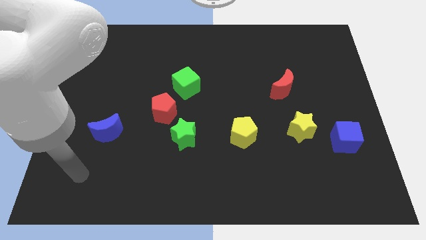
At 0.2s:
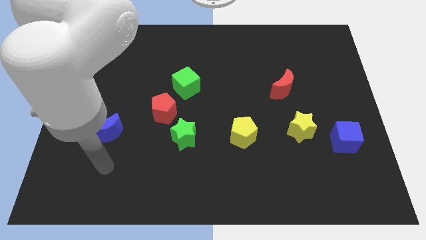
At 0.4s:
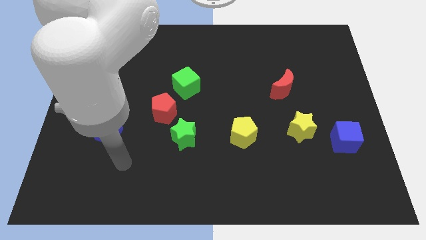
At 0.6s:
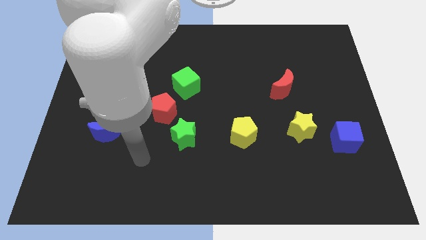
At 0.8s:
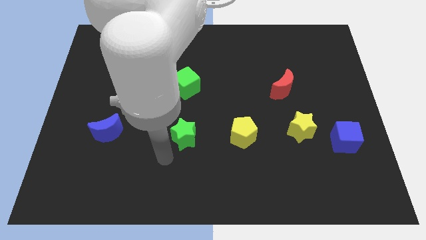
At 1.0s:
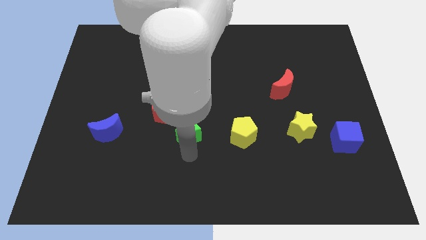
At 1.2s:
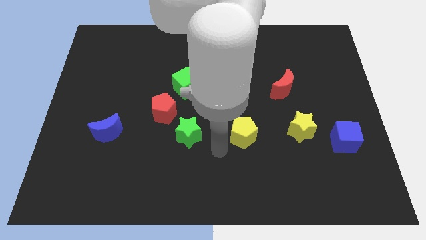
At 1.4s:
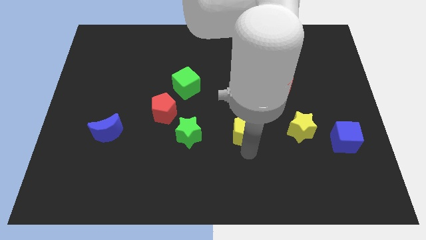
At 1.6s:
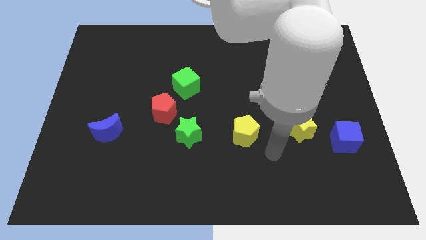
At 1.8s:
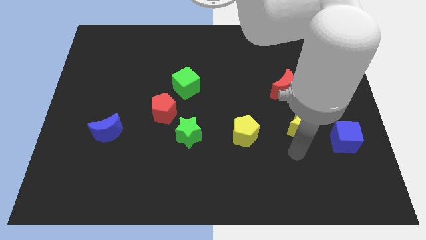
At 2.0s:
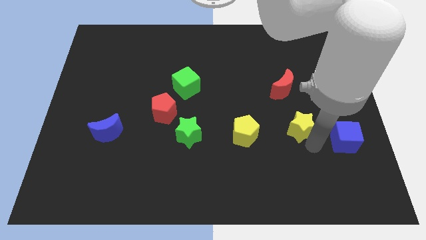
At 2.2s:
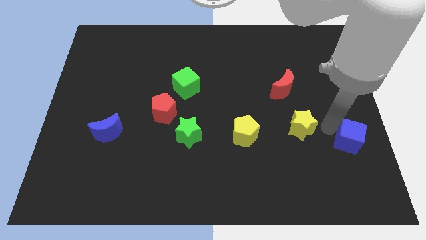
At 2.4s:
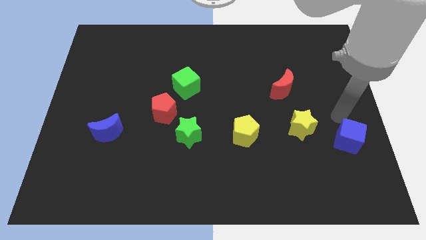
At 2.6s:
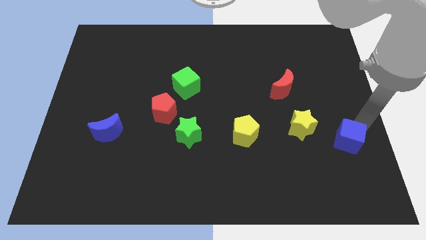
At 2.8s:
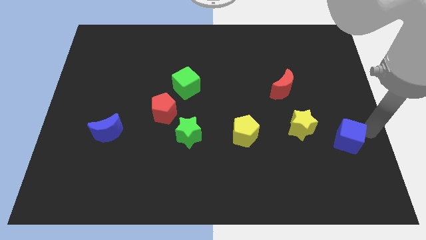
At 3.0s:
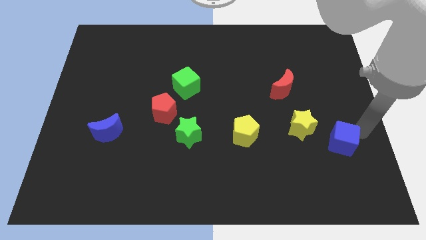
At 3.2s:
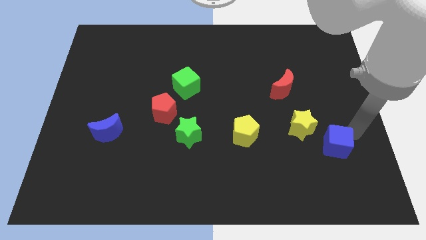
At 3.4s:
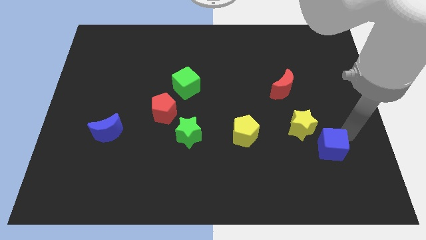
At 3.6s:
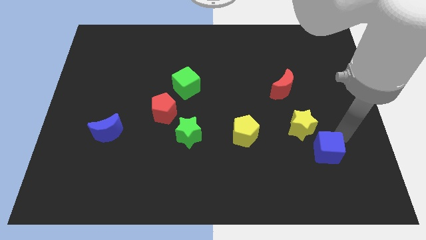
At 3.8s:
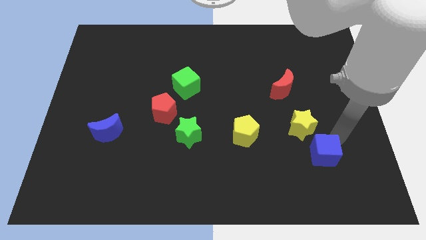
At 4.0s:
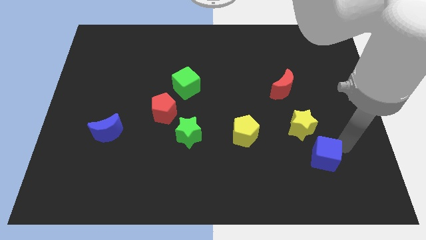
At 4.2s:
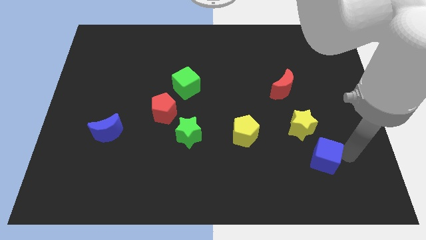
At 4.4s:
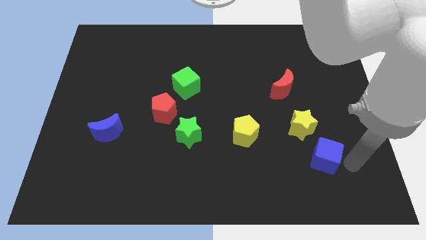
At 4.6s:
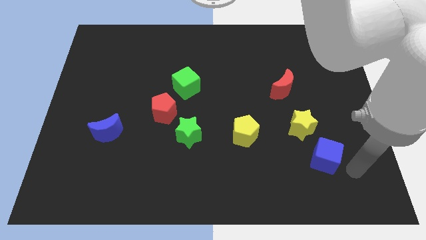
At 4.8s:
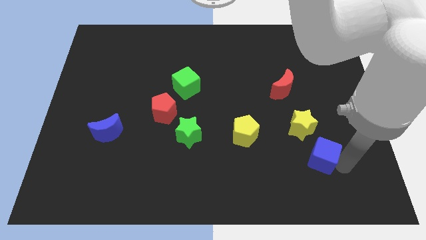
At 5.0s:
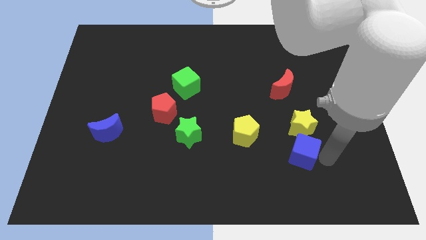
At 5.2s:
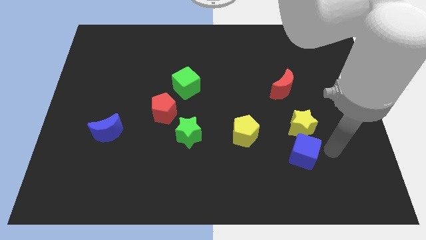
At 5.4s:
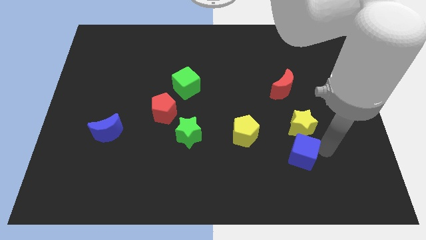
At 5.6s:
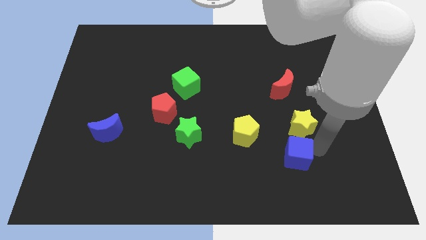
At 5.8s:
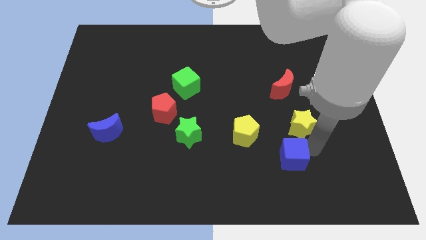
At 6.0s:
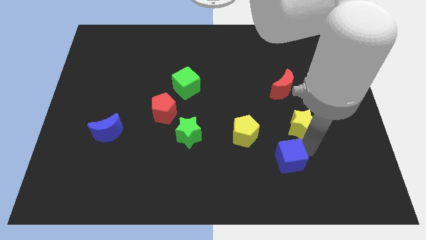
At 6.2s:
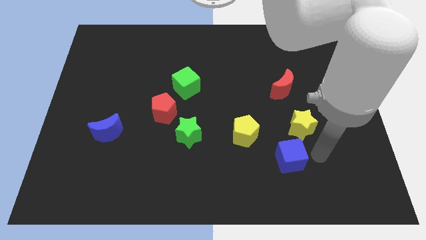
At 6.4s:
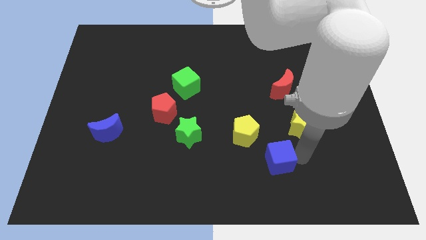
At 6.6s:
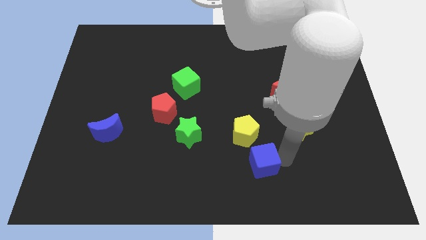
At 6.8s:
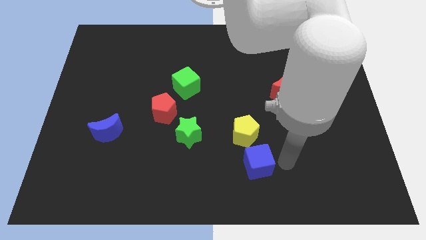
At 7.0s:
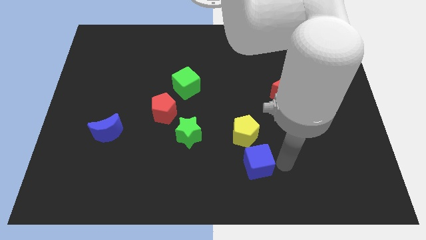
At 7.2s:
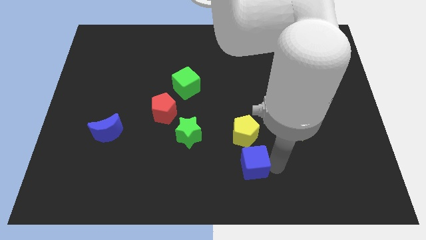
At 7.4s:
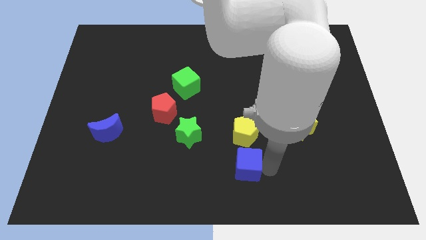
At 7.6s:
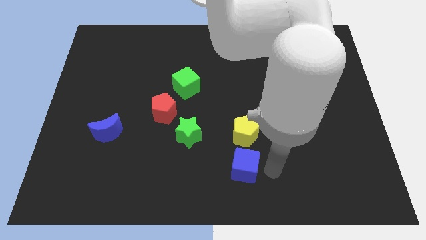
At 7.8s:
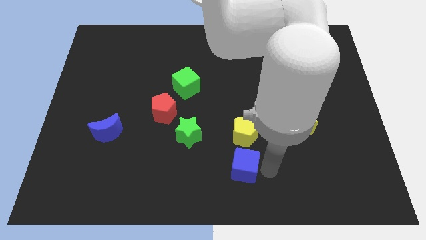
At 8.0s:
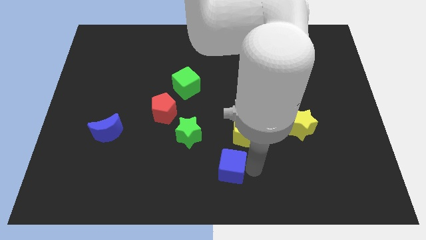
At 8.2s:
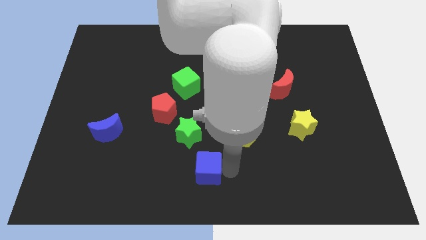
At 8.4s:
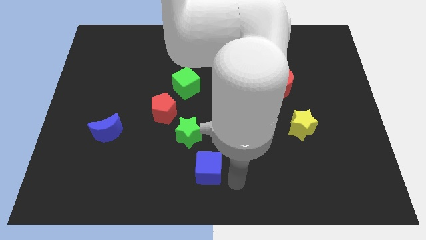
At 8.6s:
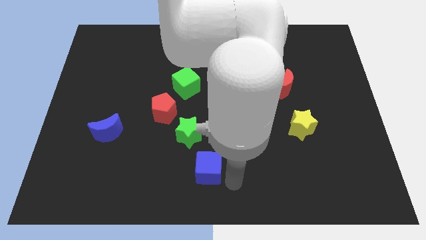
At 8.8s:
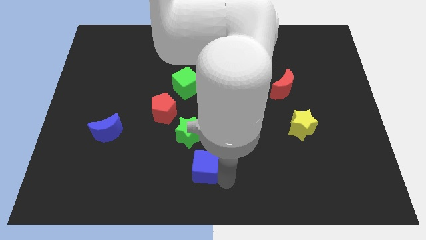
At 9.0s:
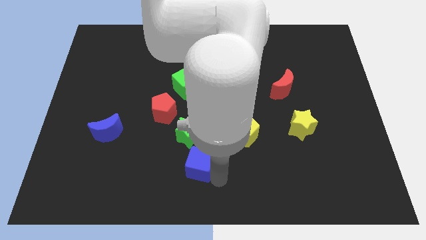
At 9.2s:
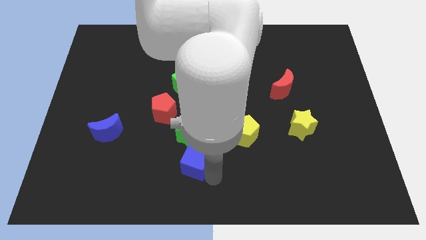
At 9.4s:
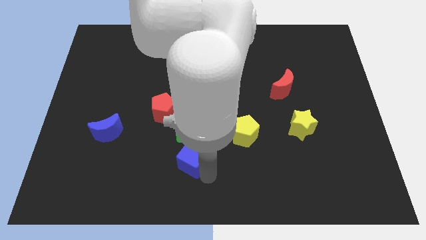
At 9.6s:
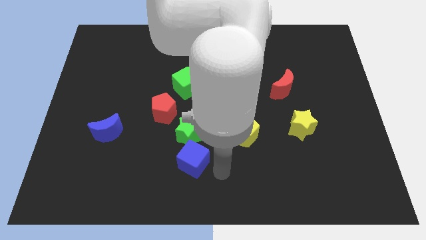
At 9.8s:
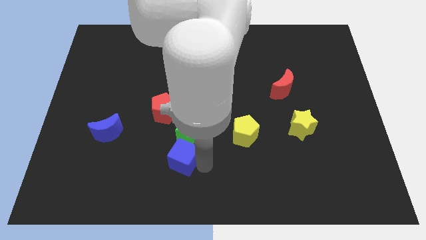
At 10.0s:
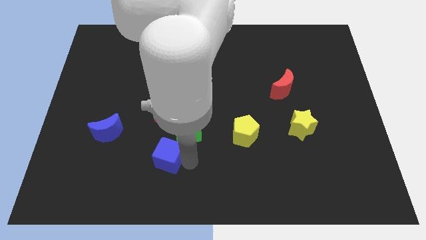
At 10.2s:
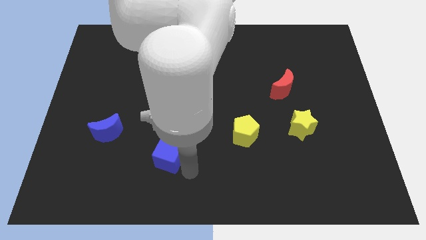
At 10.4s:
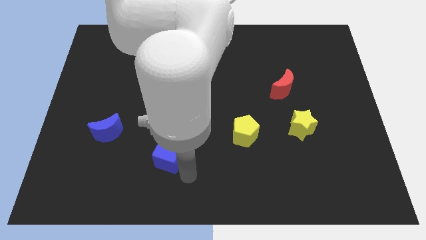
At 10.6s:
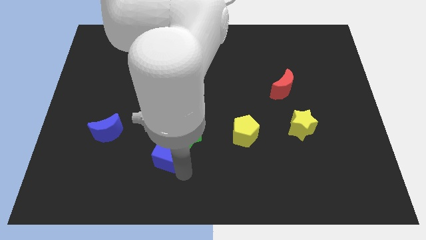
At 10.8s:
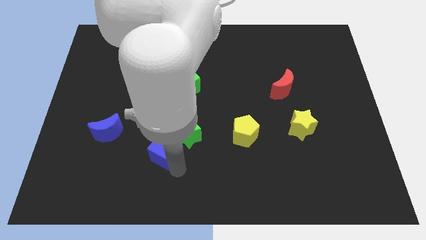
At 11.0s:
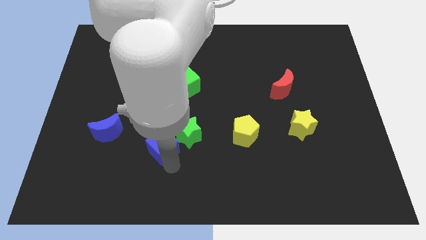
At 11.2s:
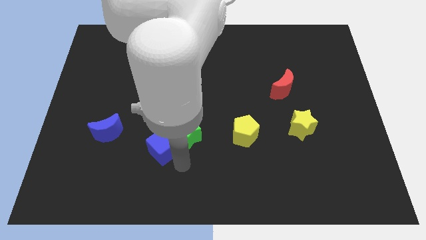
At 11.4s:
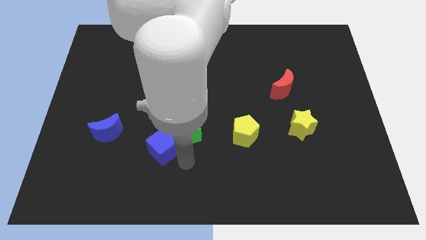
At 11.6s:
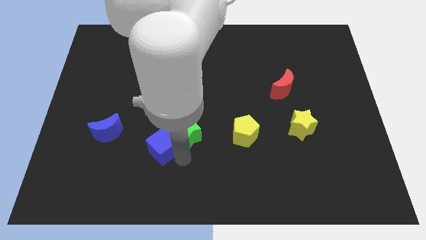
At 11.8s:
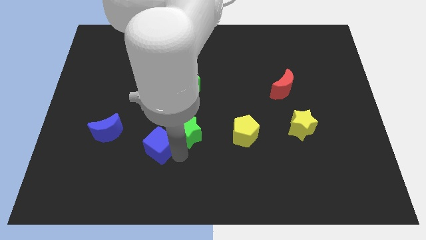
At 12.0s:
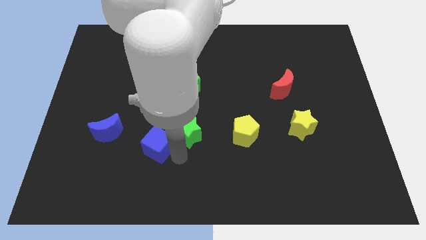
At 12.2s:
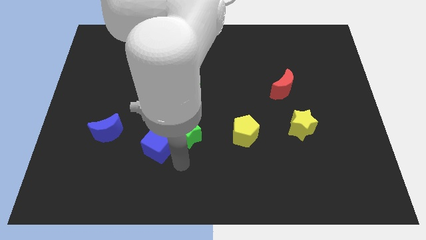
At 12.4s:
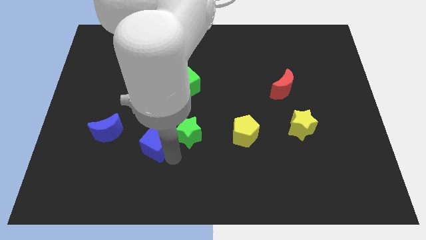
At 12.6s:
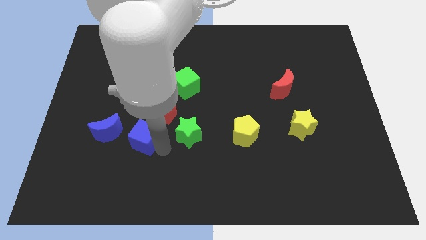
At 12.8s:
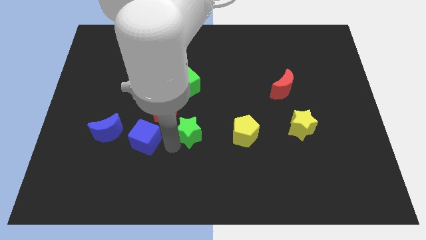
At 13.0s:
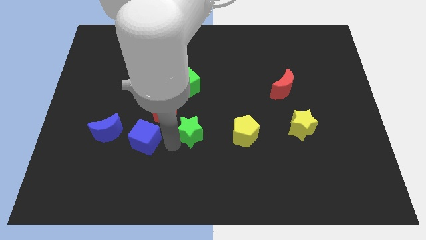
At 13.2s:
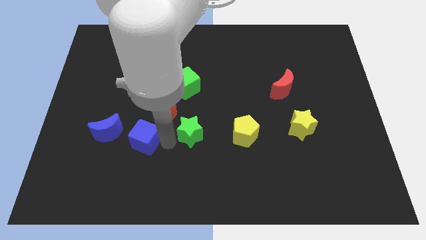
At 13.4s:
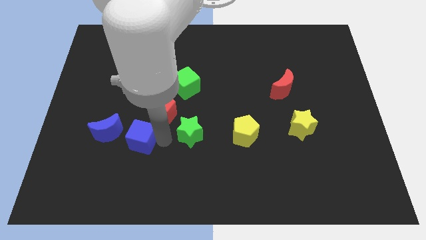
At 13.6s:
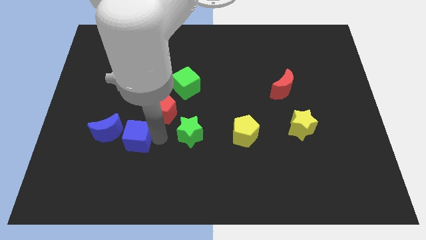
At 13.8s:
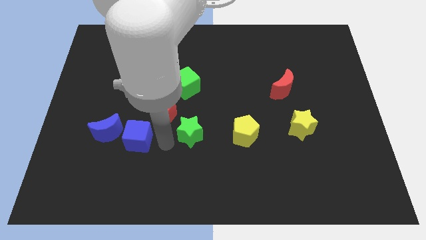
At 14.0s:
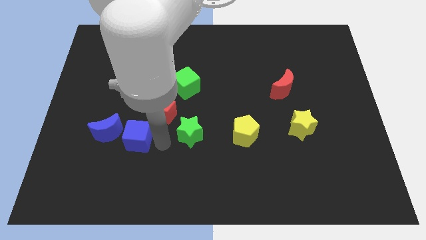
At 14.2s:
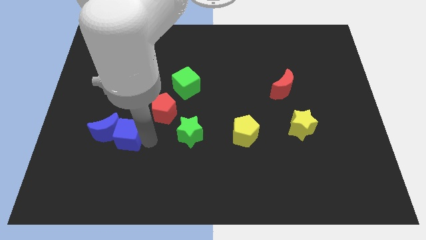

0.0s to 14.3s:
move the blue cube towards the blue moon
